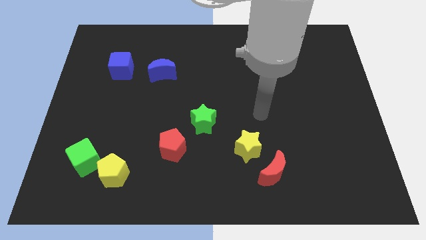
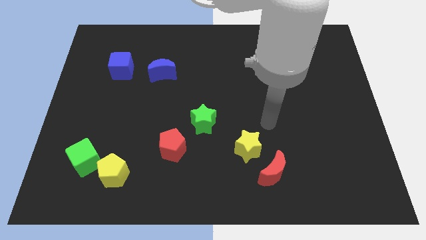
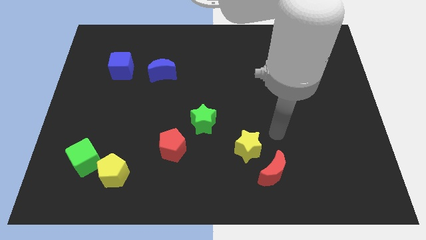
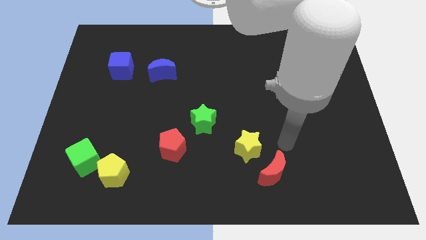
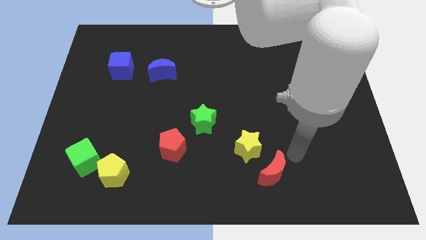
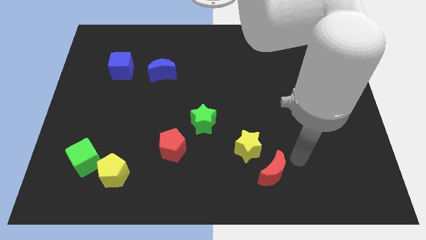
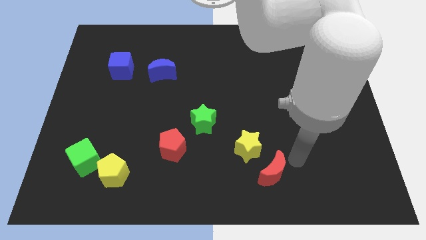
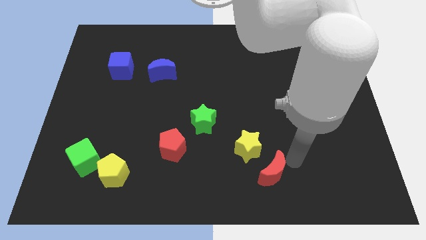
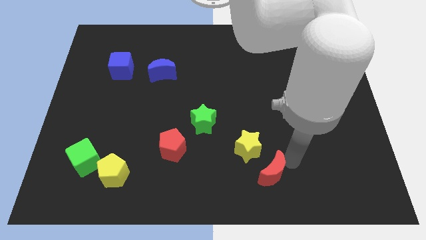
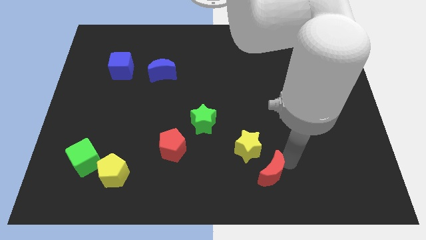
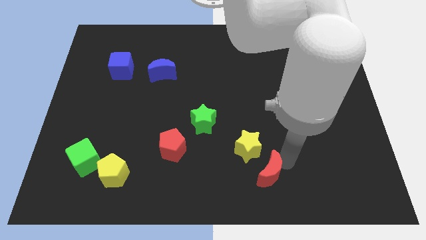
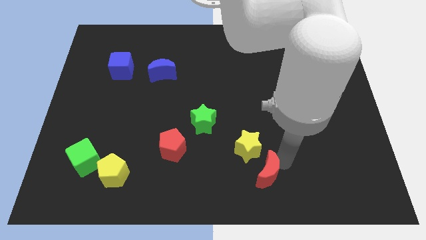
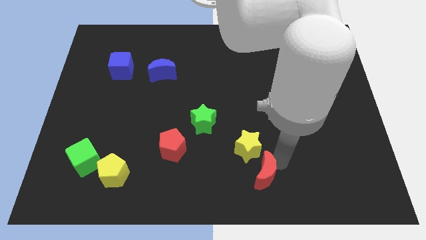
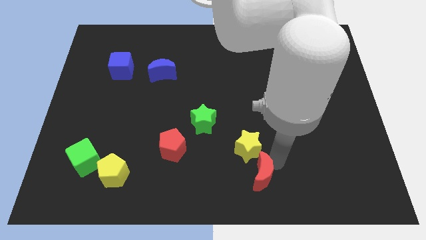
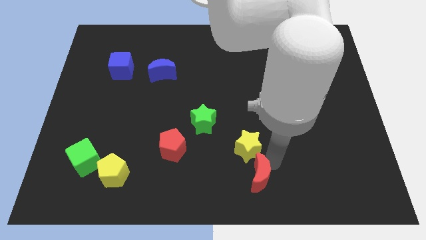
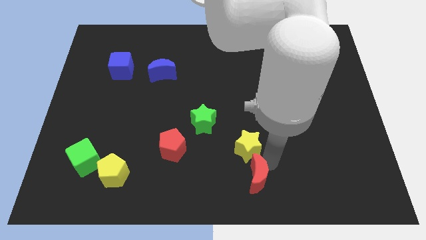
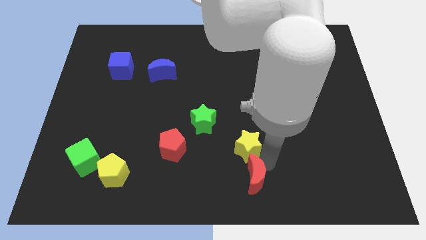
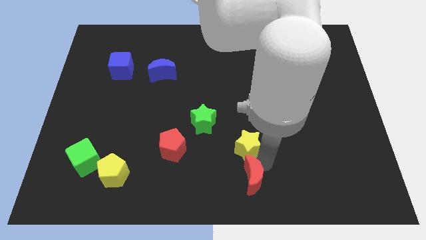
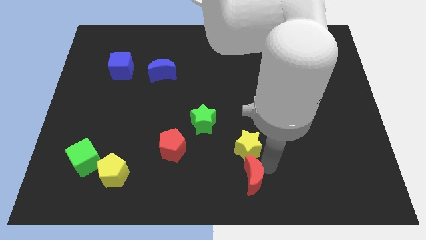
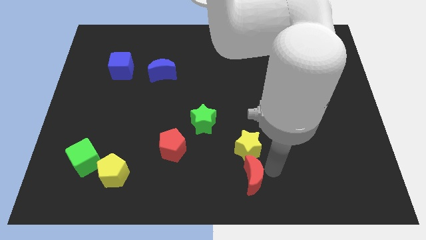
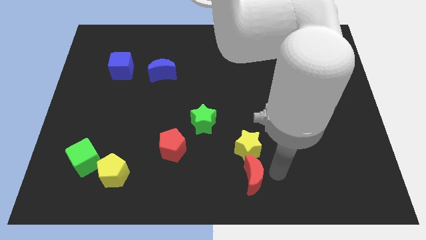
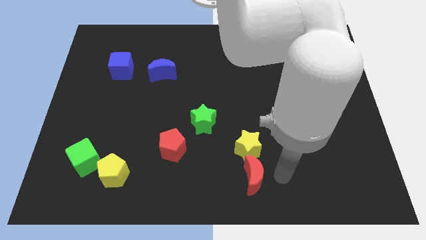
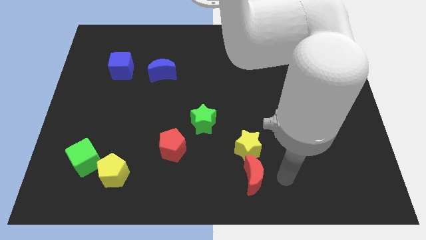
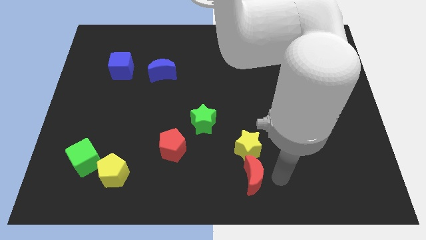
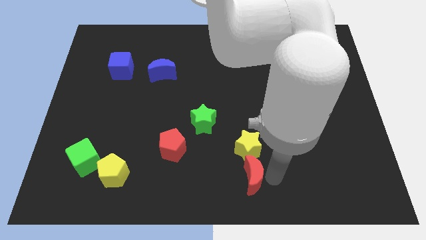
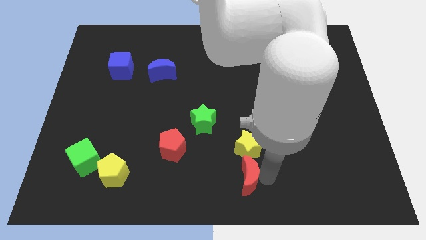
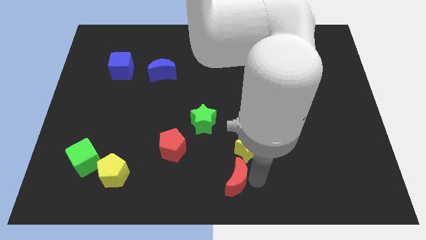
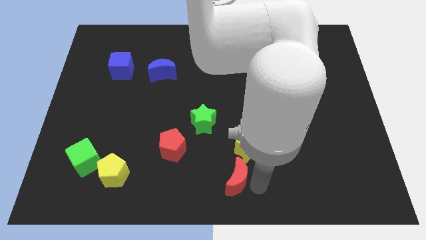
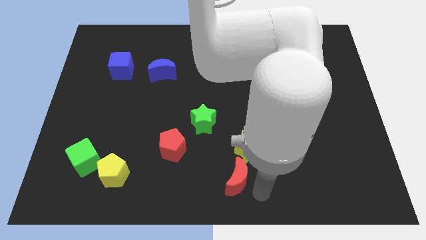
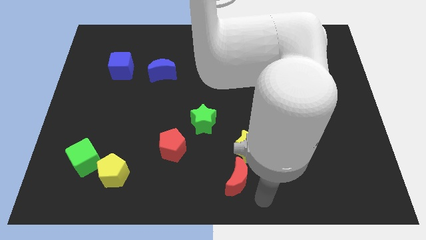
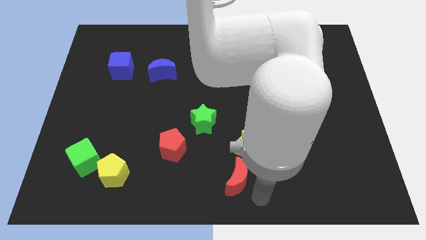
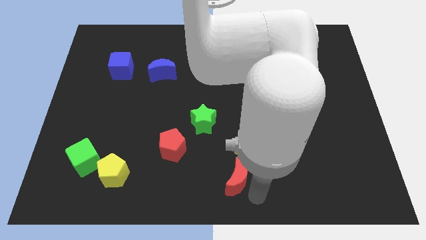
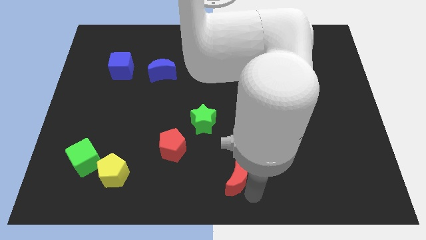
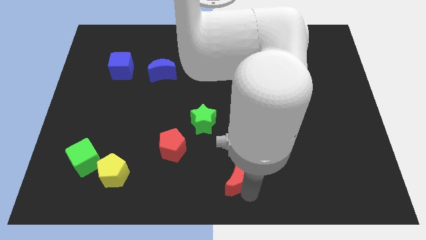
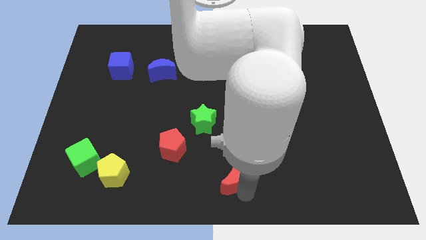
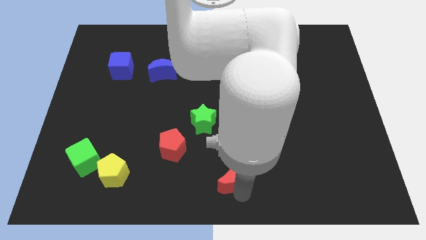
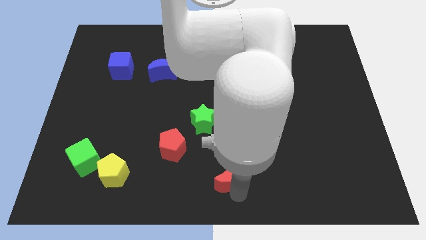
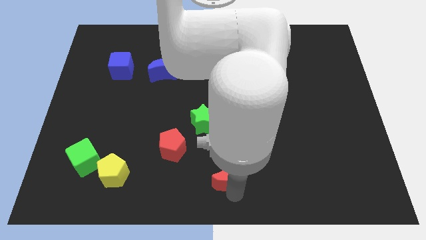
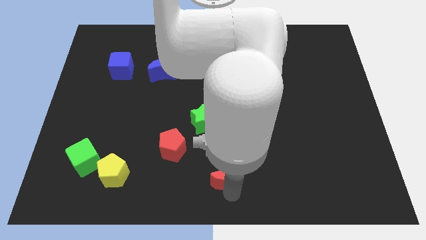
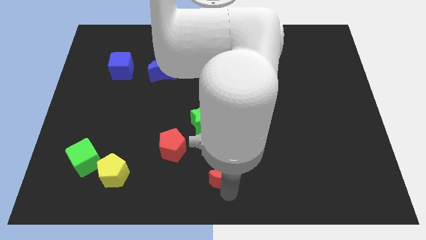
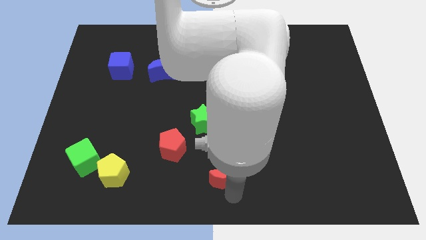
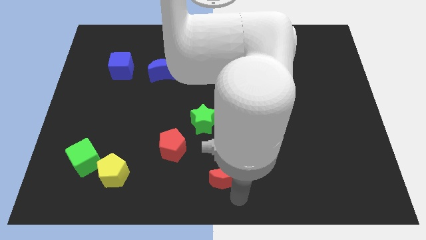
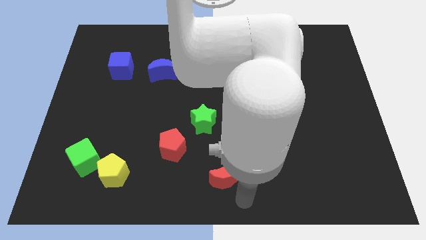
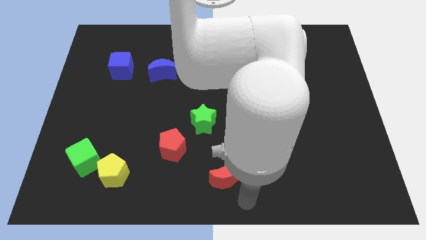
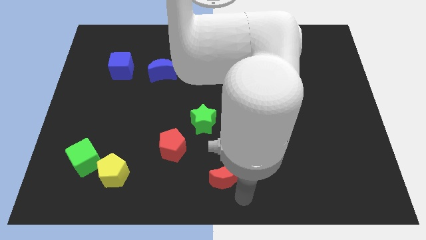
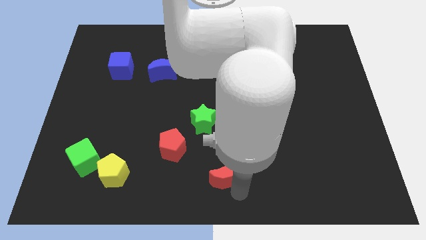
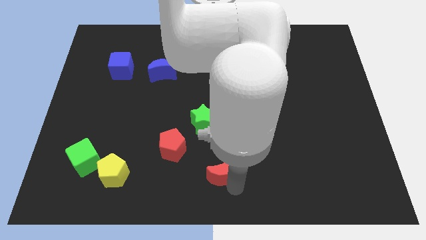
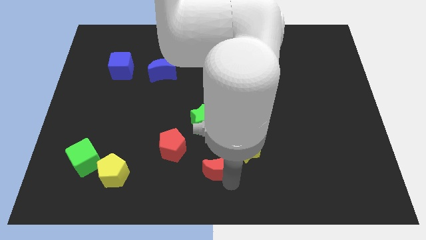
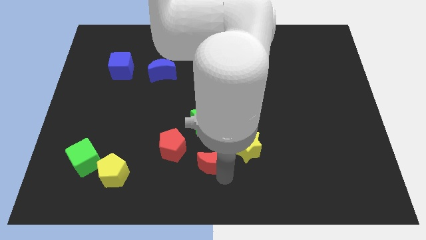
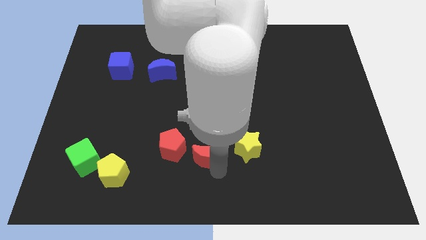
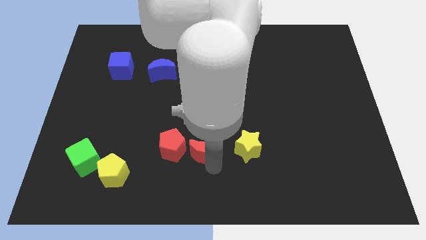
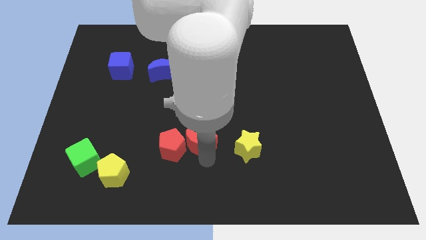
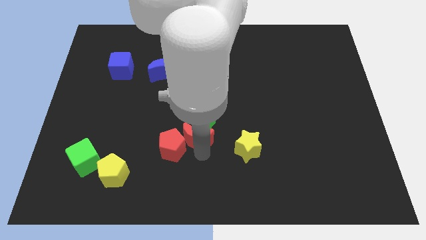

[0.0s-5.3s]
put the red moon towards the green star

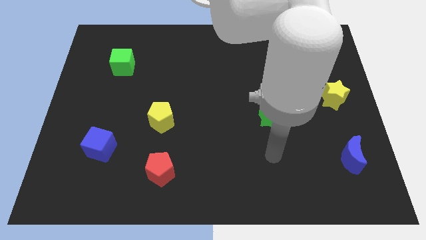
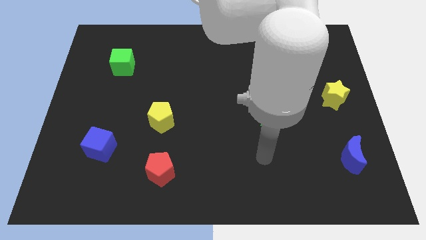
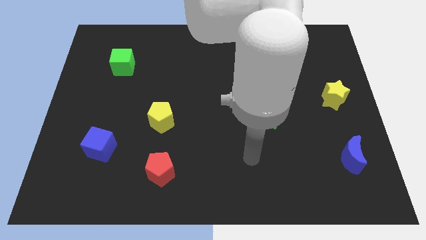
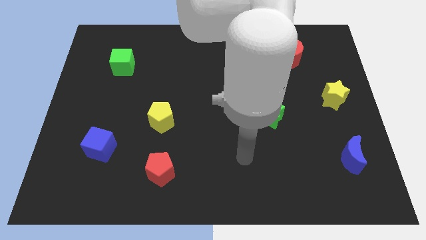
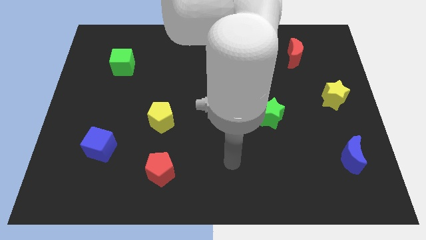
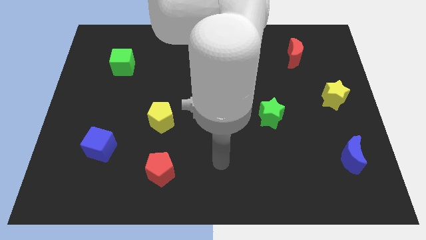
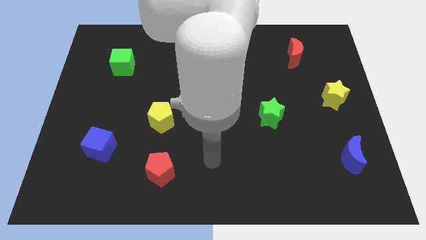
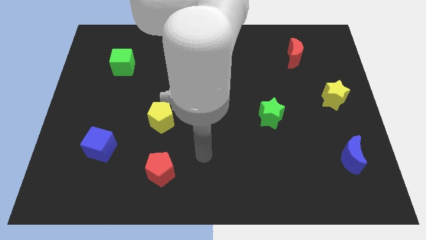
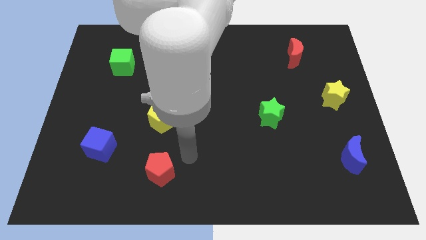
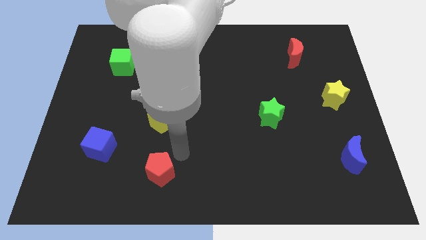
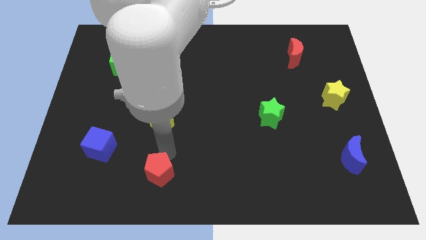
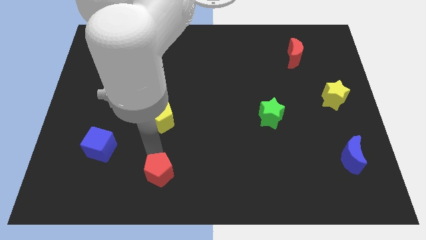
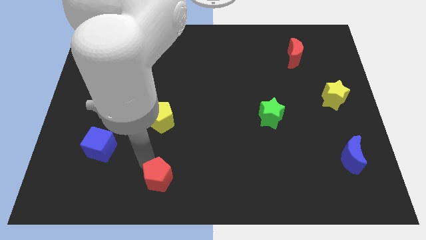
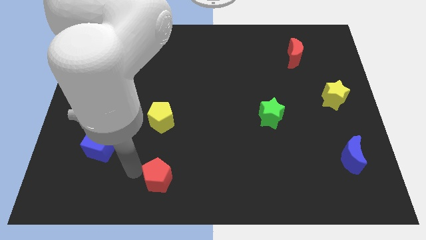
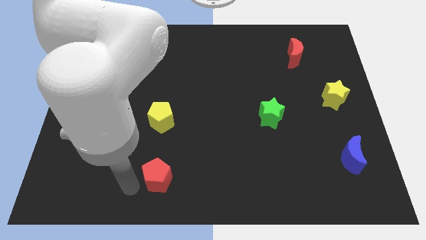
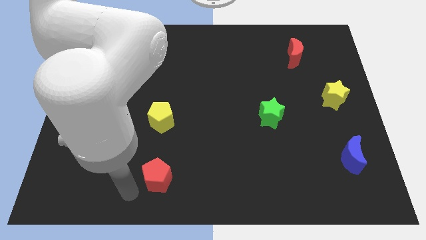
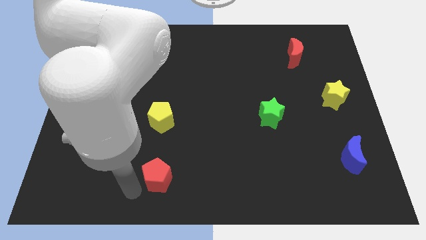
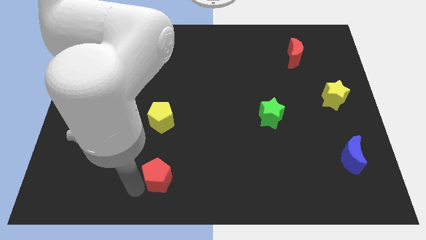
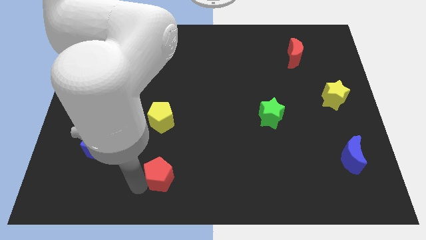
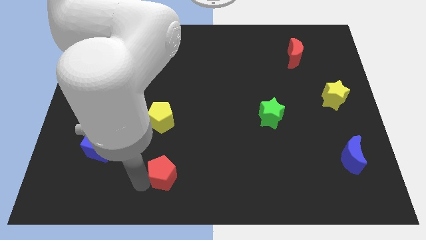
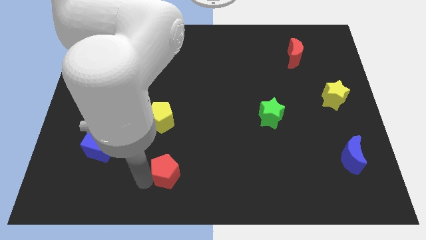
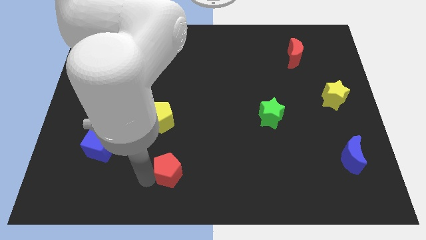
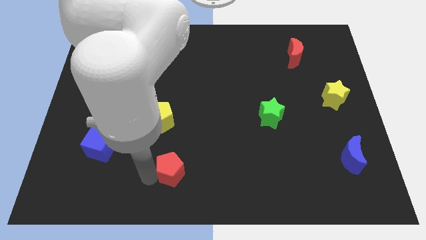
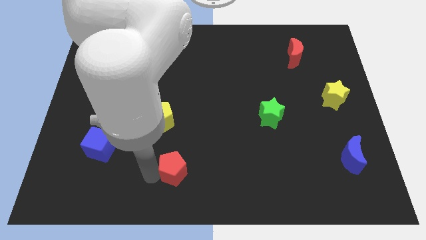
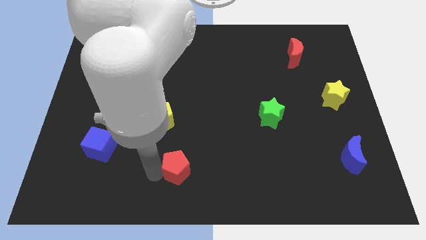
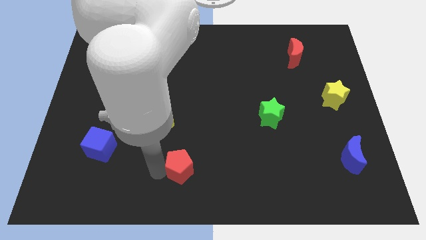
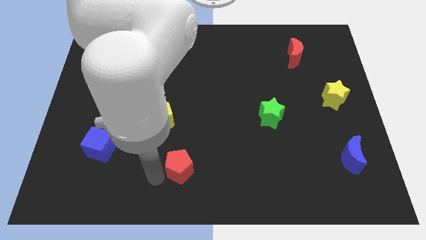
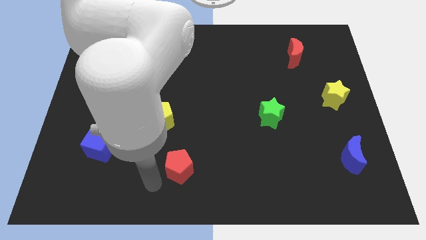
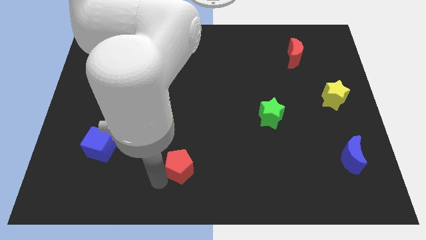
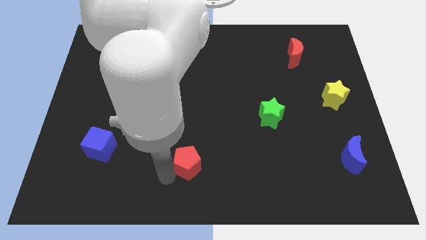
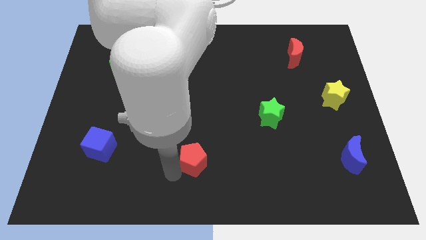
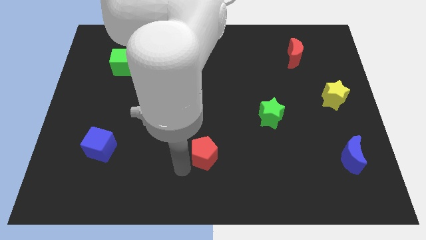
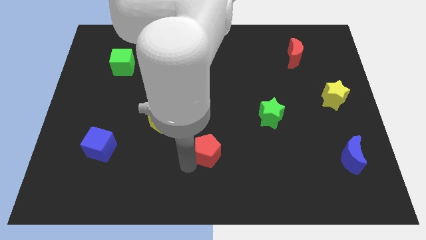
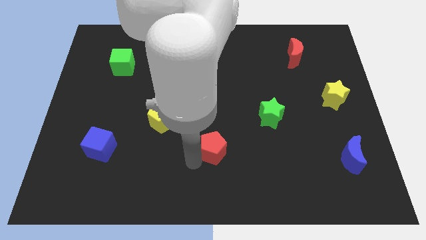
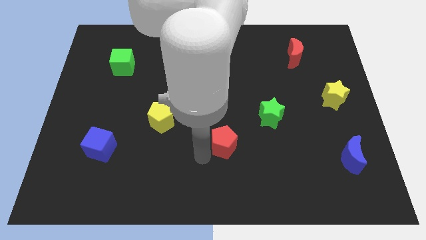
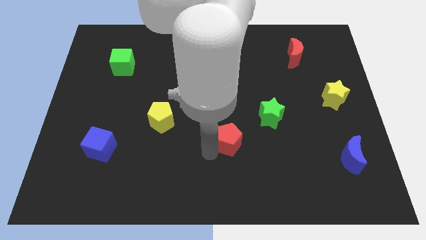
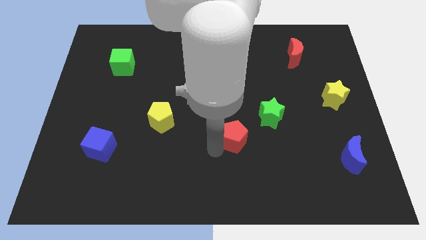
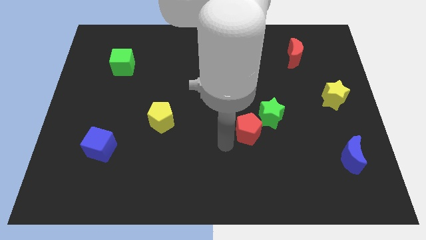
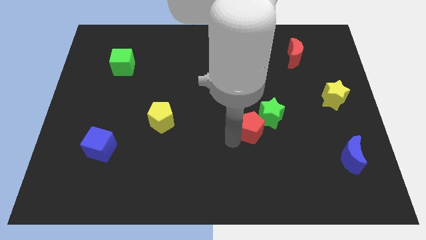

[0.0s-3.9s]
push the red pentagon to the green star
